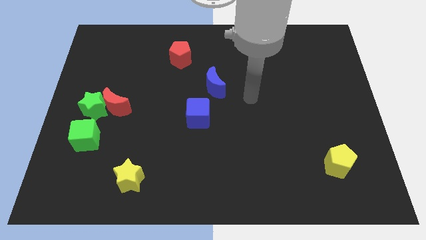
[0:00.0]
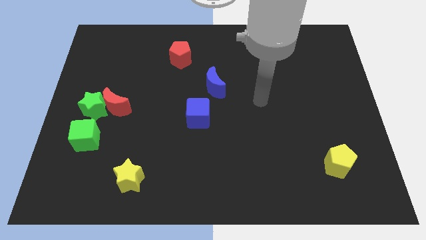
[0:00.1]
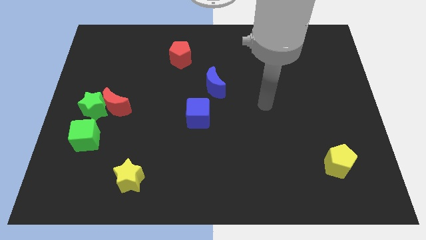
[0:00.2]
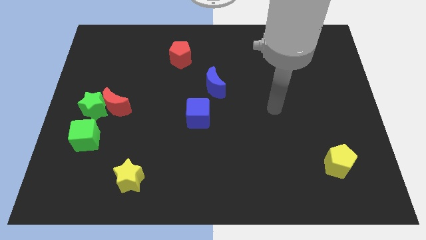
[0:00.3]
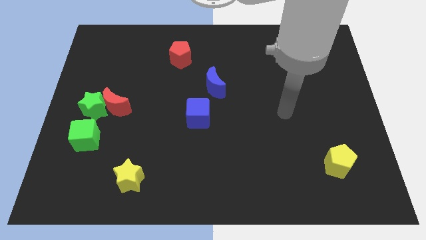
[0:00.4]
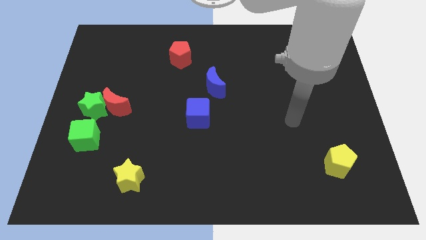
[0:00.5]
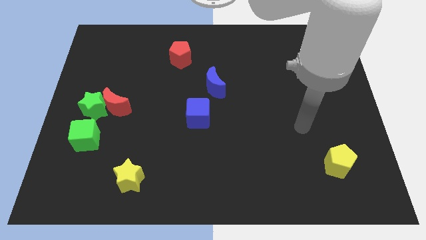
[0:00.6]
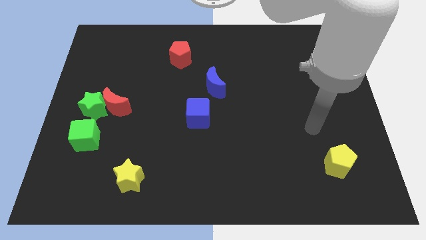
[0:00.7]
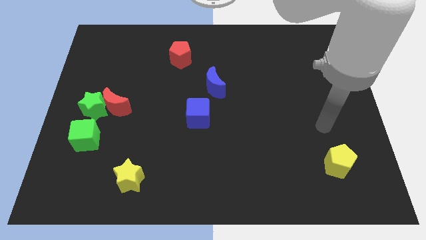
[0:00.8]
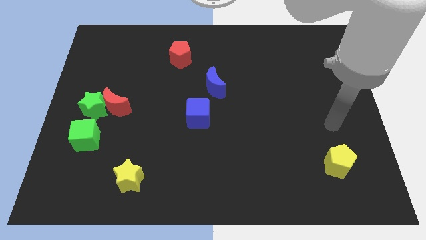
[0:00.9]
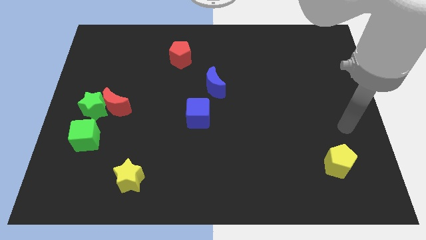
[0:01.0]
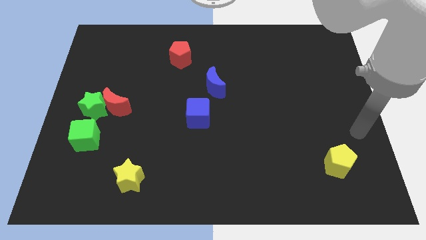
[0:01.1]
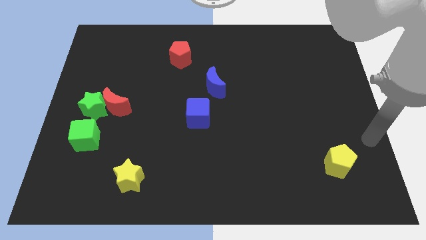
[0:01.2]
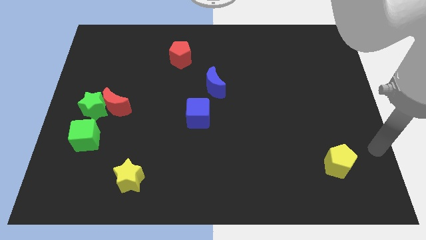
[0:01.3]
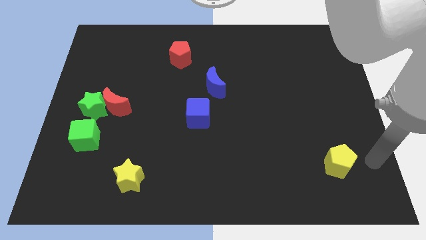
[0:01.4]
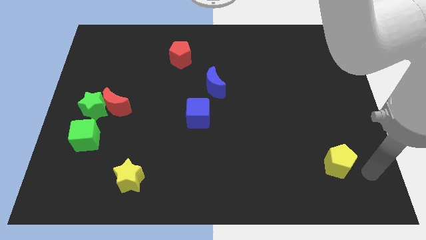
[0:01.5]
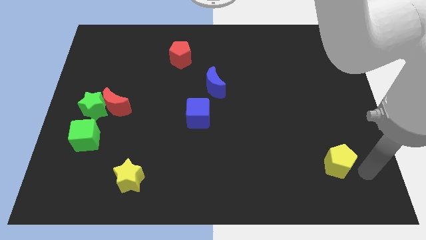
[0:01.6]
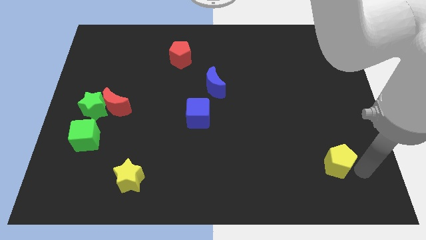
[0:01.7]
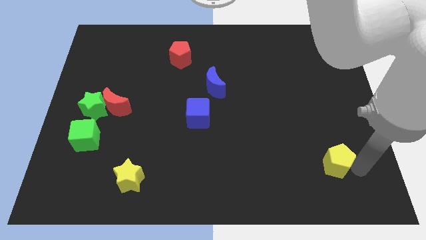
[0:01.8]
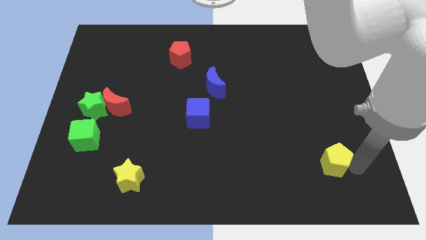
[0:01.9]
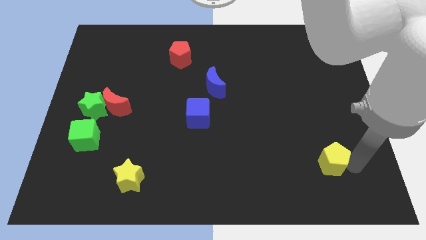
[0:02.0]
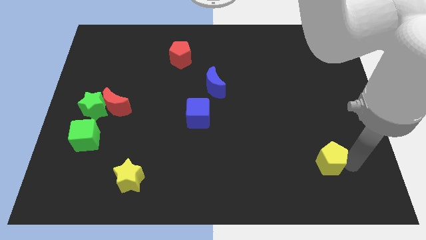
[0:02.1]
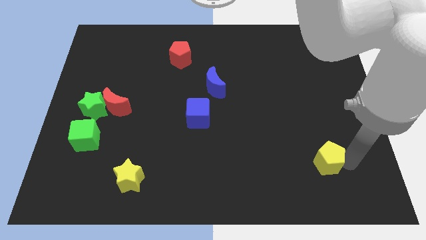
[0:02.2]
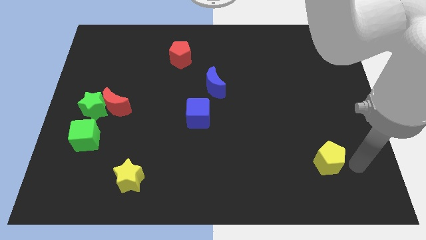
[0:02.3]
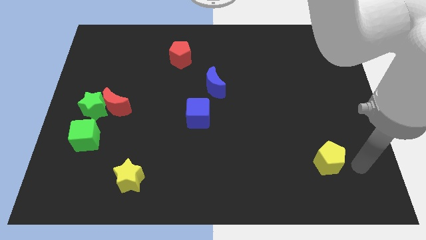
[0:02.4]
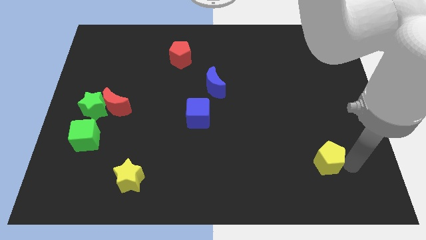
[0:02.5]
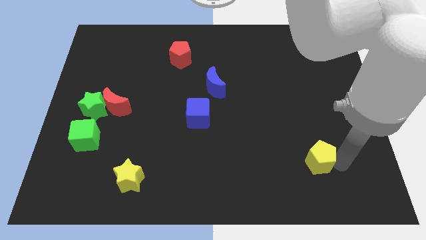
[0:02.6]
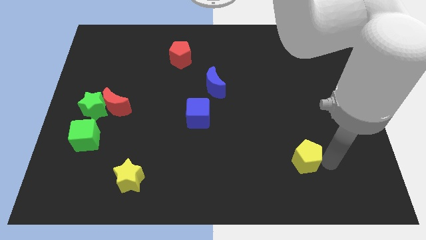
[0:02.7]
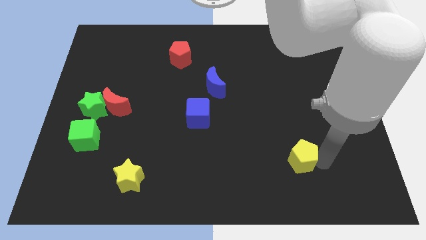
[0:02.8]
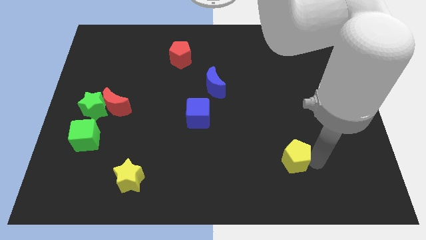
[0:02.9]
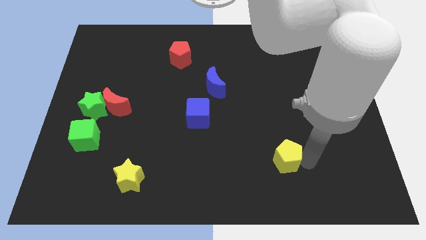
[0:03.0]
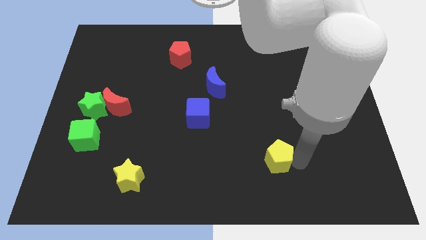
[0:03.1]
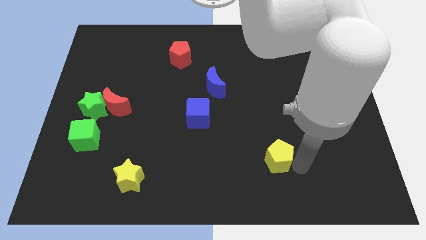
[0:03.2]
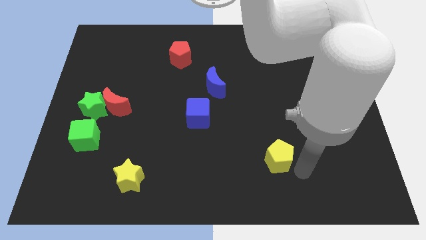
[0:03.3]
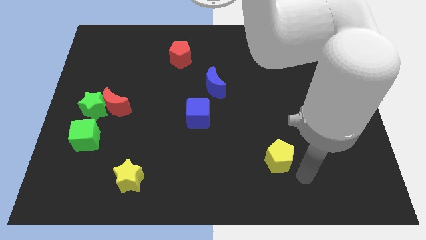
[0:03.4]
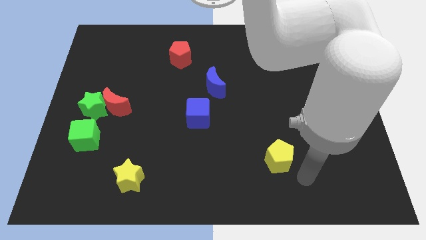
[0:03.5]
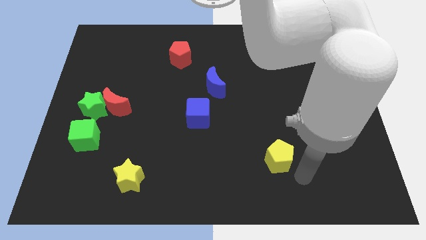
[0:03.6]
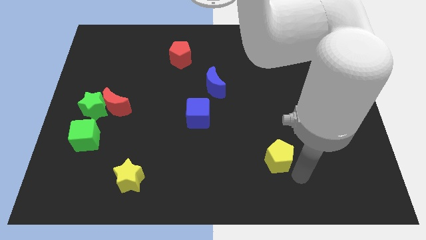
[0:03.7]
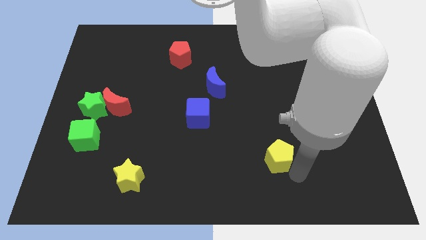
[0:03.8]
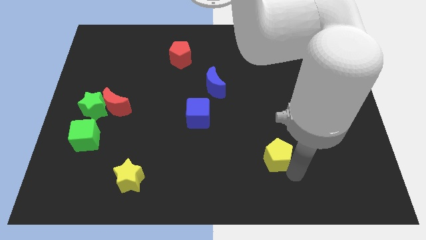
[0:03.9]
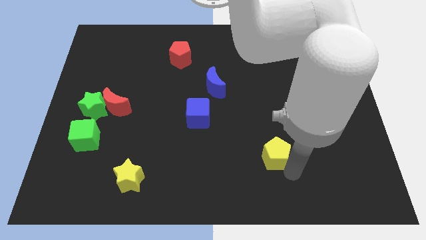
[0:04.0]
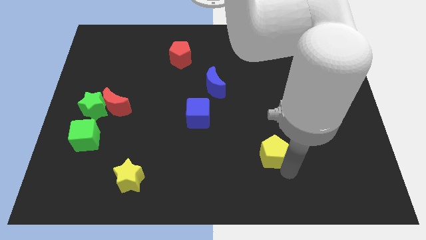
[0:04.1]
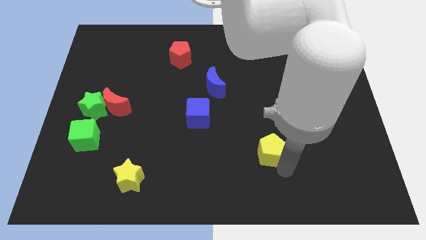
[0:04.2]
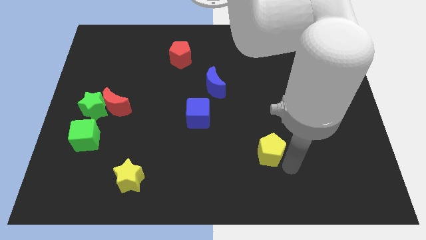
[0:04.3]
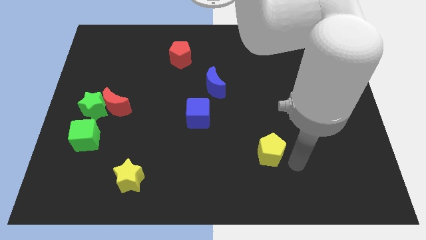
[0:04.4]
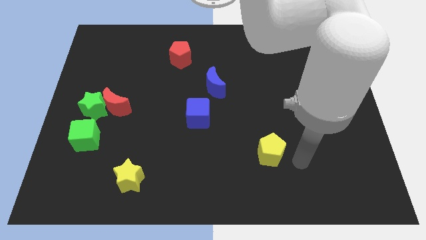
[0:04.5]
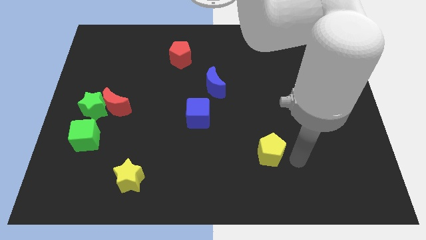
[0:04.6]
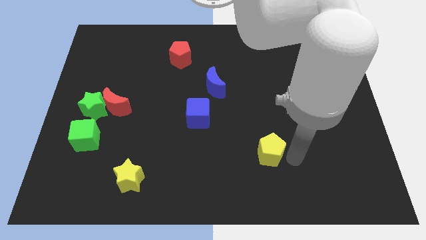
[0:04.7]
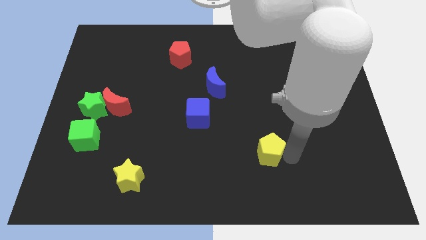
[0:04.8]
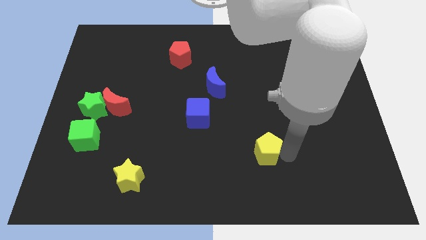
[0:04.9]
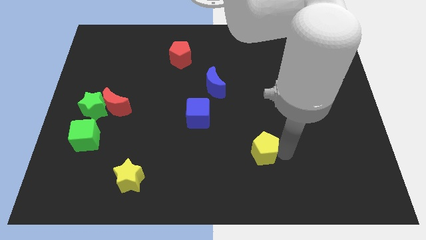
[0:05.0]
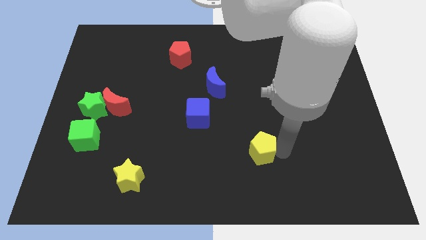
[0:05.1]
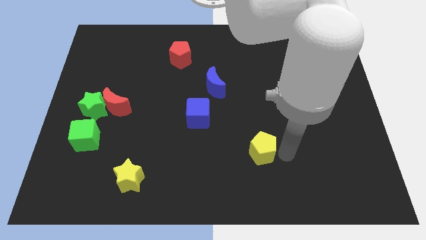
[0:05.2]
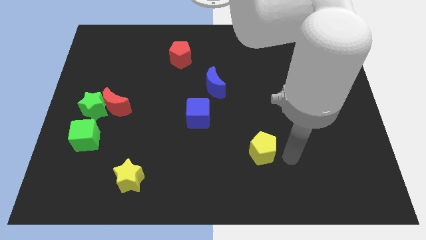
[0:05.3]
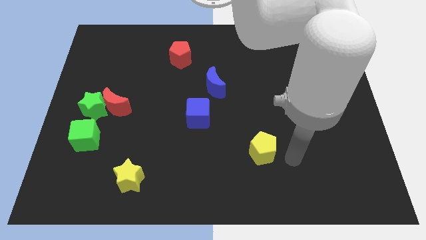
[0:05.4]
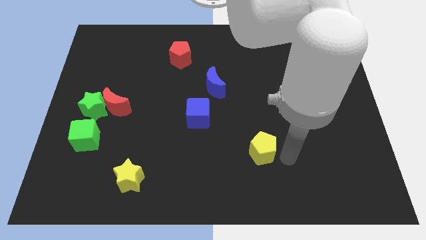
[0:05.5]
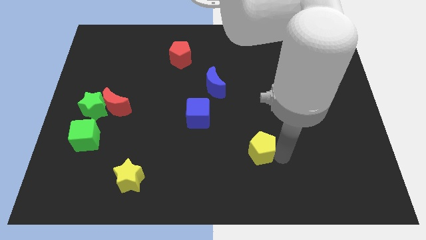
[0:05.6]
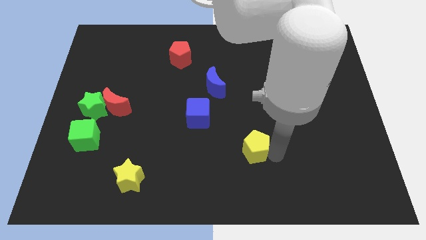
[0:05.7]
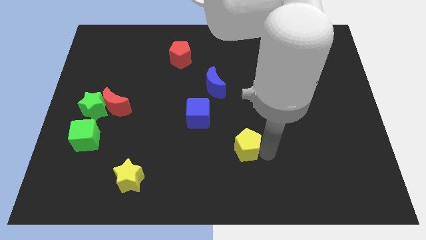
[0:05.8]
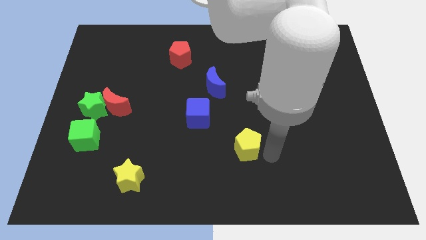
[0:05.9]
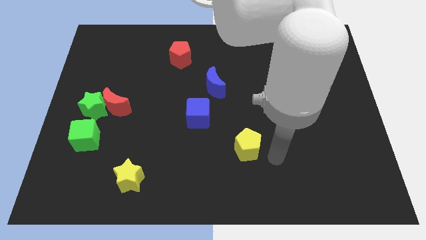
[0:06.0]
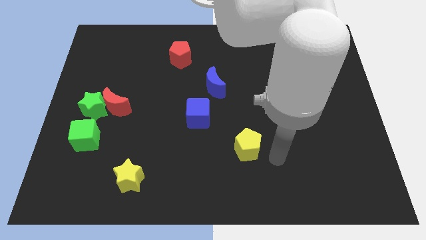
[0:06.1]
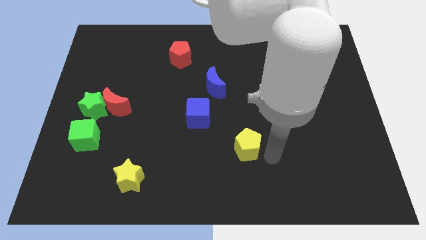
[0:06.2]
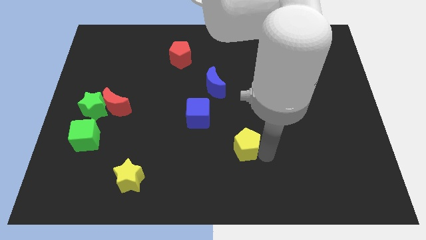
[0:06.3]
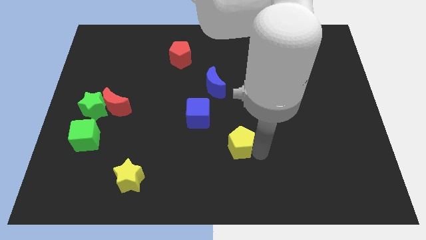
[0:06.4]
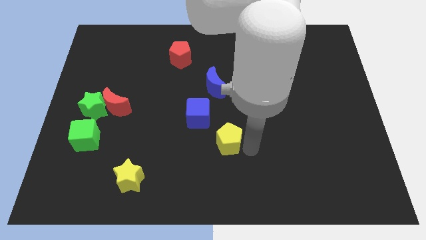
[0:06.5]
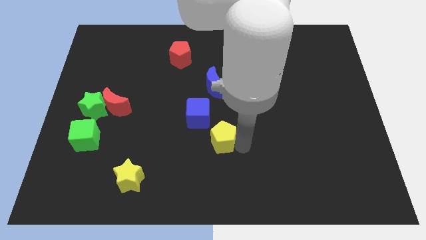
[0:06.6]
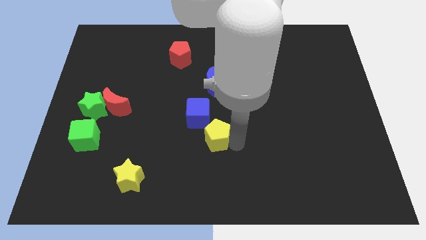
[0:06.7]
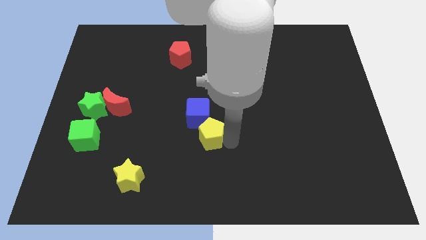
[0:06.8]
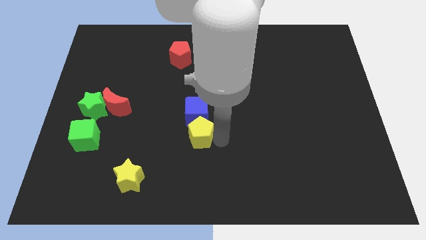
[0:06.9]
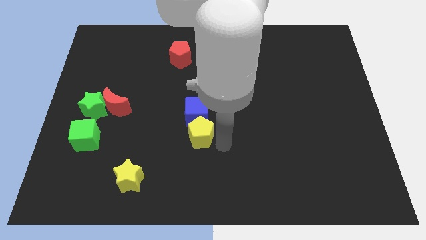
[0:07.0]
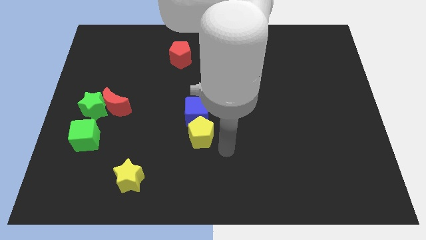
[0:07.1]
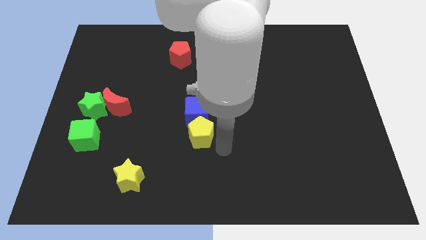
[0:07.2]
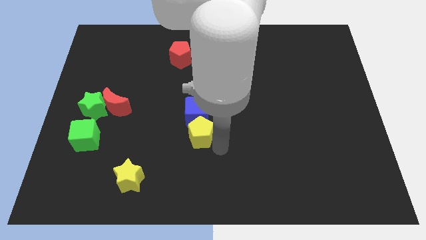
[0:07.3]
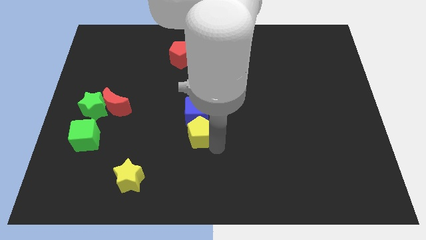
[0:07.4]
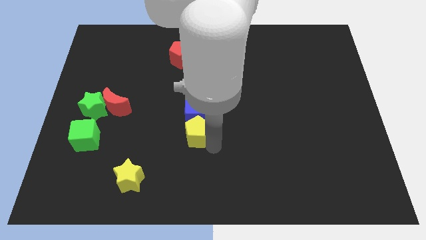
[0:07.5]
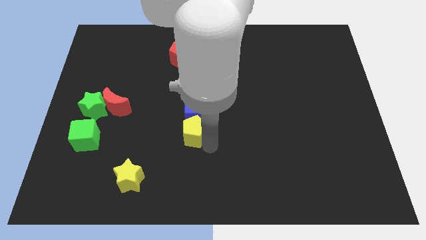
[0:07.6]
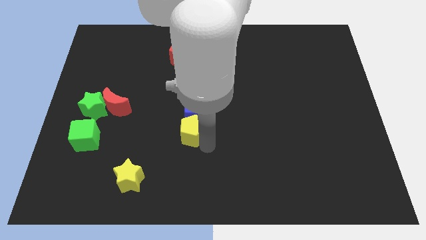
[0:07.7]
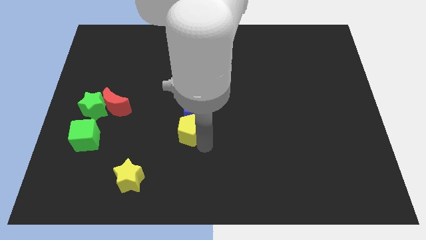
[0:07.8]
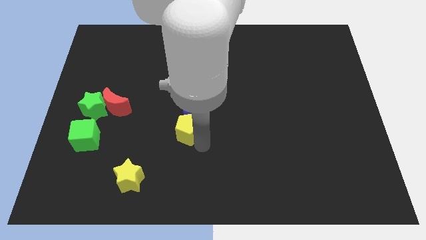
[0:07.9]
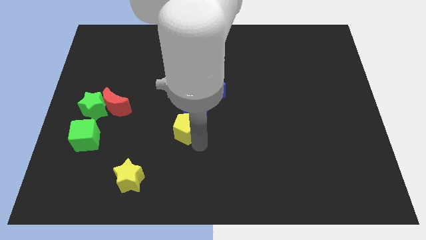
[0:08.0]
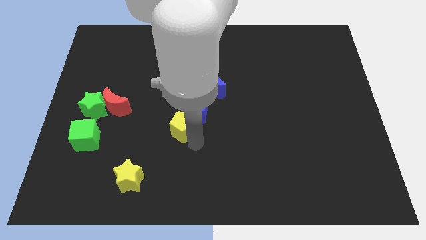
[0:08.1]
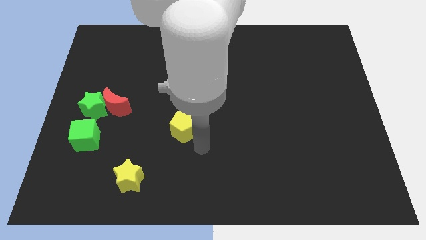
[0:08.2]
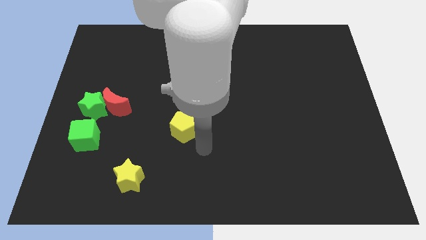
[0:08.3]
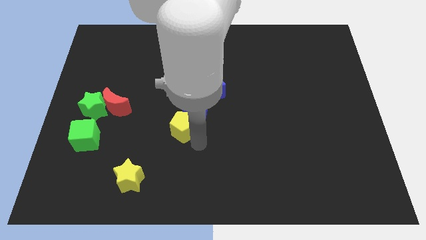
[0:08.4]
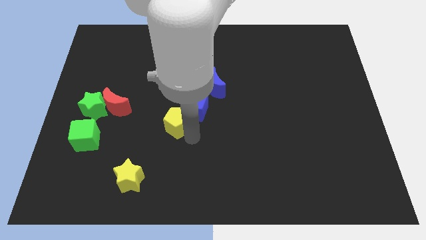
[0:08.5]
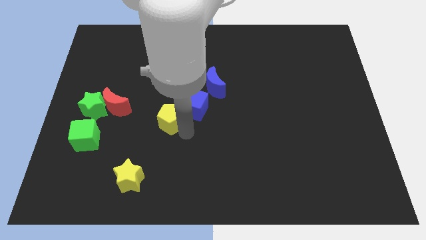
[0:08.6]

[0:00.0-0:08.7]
put the yellow pentagon to the right side of the red moon
